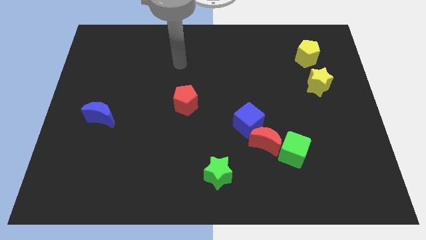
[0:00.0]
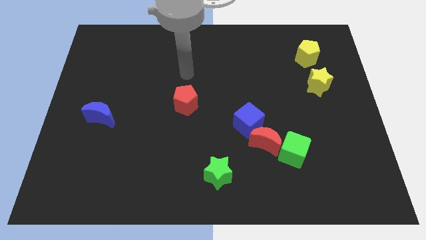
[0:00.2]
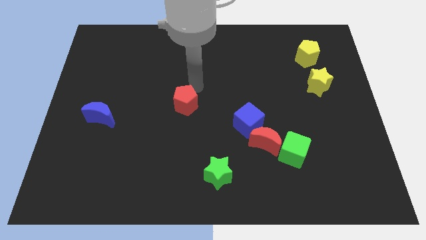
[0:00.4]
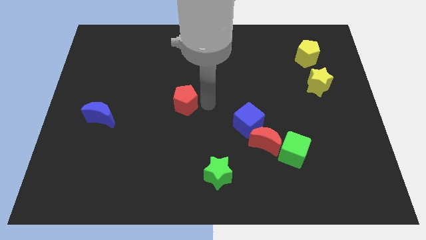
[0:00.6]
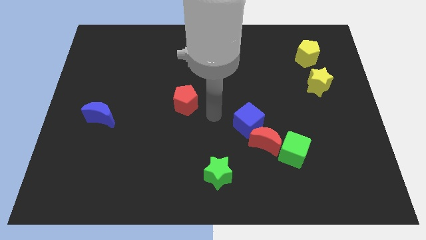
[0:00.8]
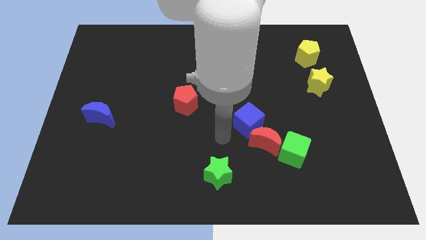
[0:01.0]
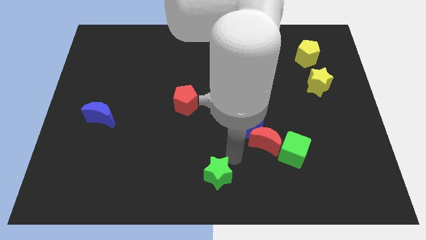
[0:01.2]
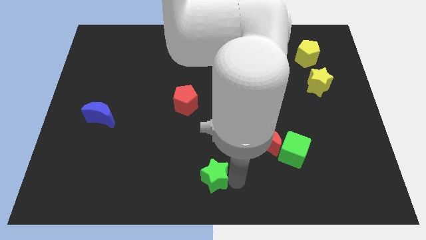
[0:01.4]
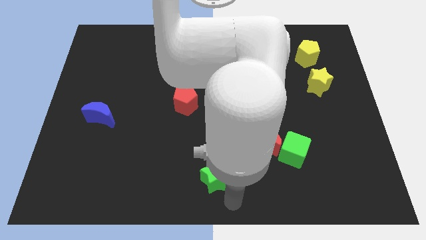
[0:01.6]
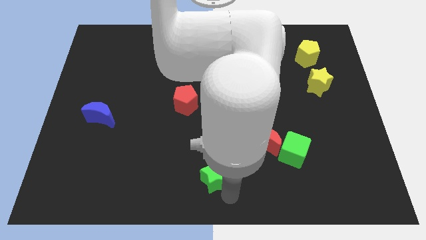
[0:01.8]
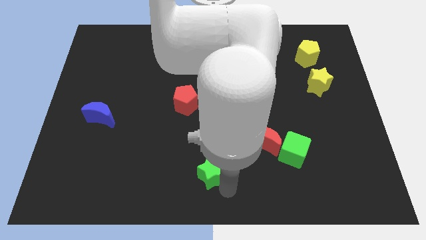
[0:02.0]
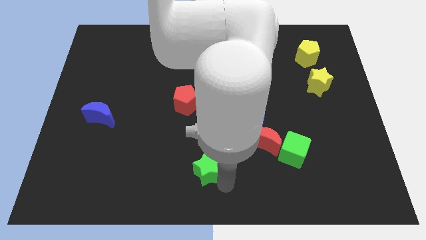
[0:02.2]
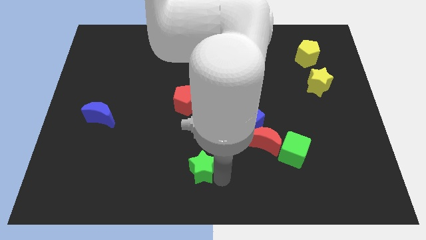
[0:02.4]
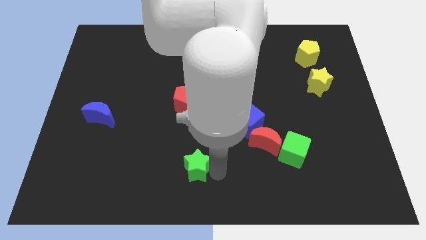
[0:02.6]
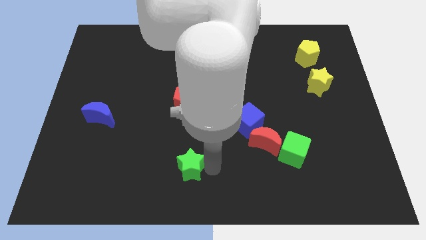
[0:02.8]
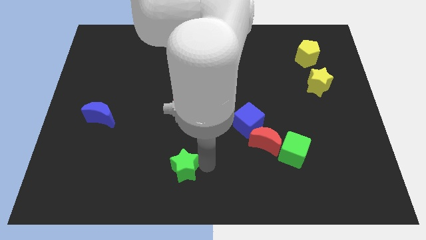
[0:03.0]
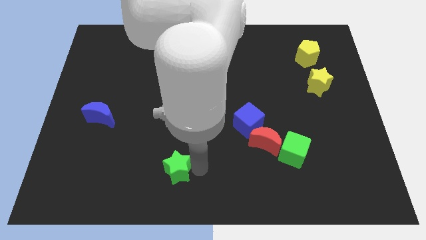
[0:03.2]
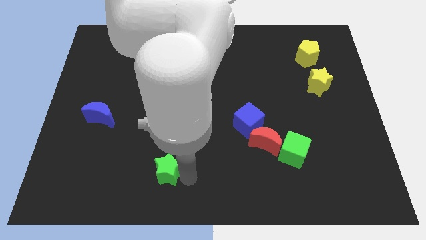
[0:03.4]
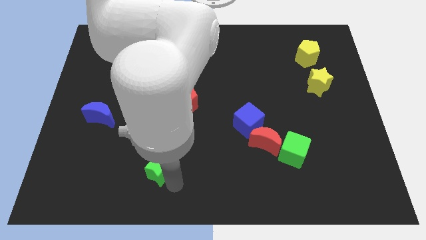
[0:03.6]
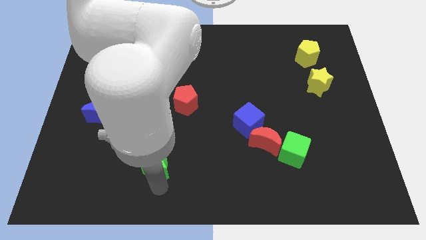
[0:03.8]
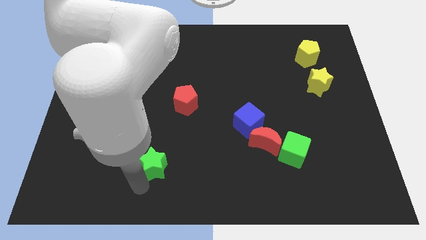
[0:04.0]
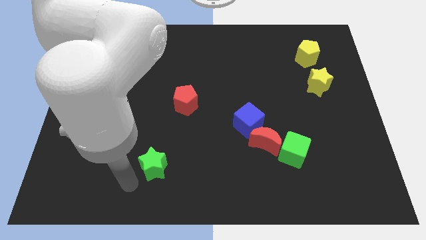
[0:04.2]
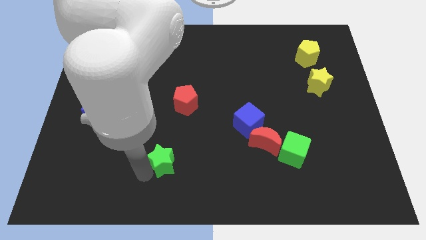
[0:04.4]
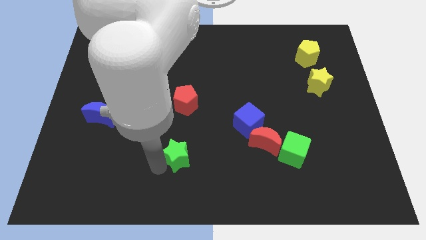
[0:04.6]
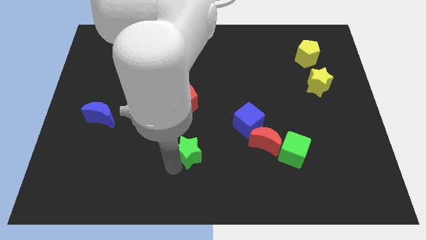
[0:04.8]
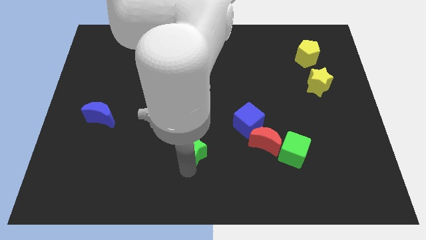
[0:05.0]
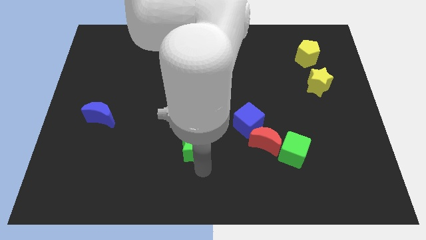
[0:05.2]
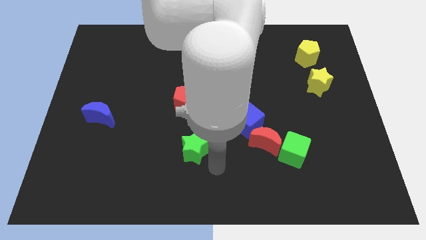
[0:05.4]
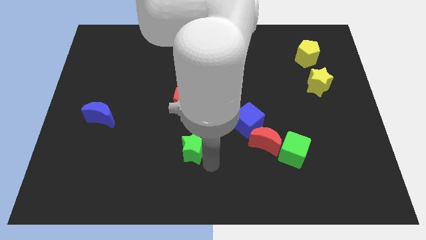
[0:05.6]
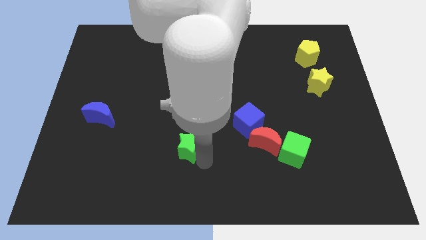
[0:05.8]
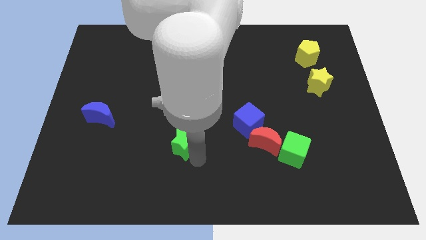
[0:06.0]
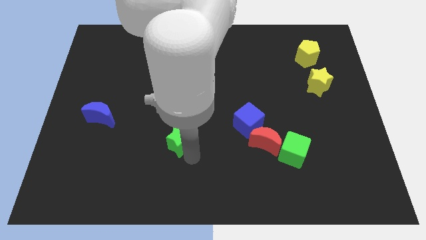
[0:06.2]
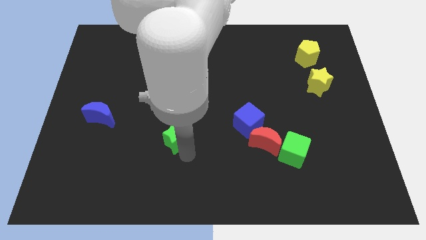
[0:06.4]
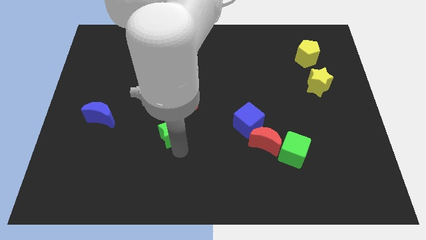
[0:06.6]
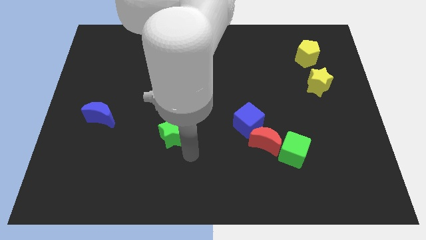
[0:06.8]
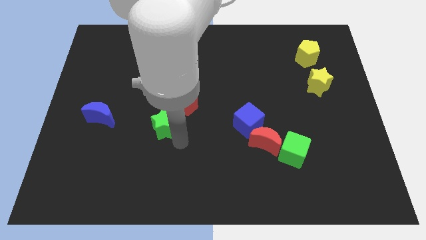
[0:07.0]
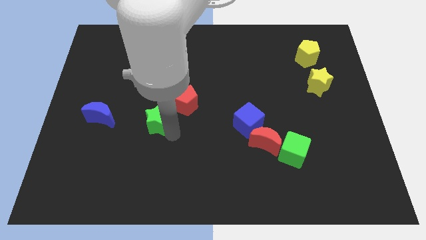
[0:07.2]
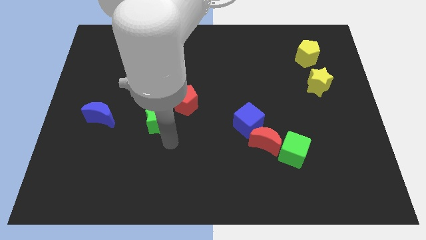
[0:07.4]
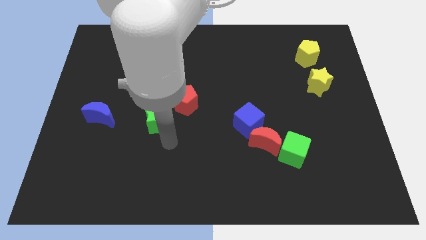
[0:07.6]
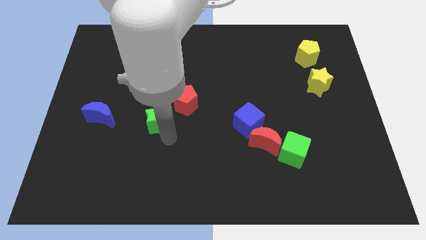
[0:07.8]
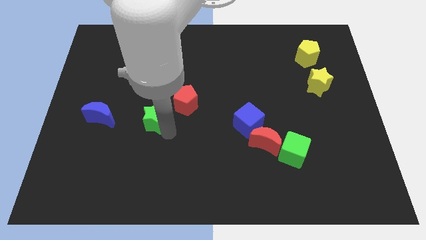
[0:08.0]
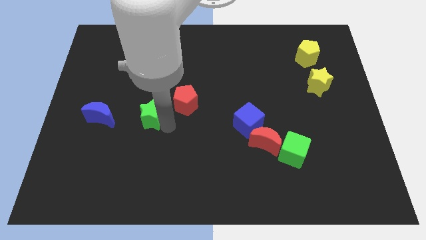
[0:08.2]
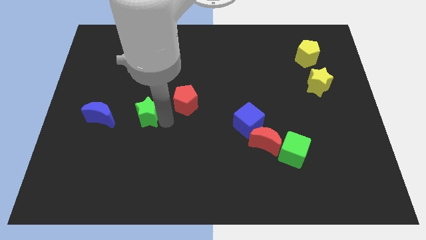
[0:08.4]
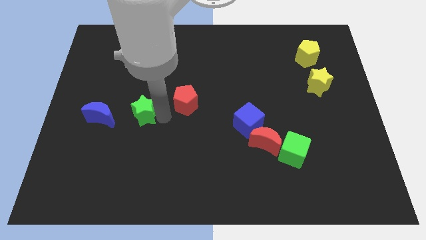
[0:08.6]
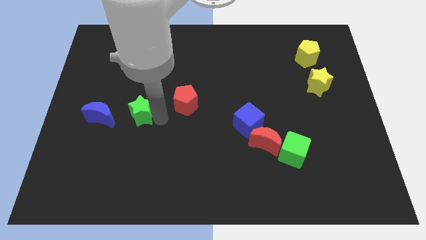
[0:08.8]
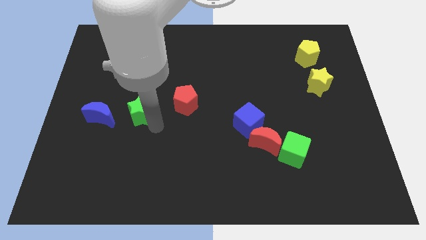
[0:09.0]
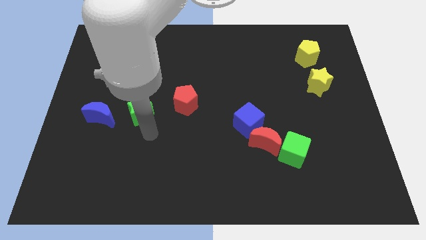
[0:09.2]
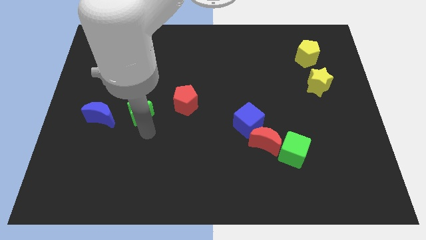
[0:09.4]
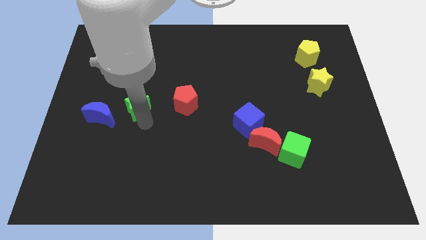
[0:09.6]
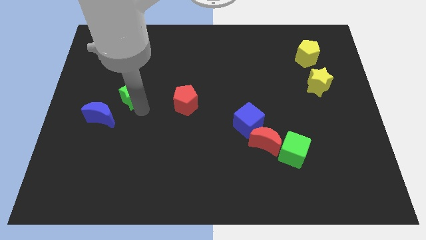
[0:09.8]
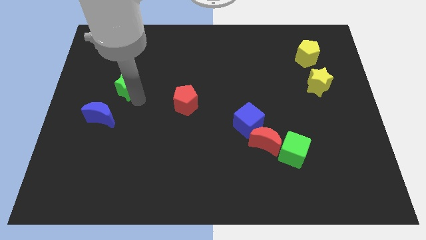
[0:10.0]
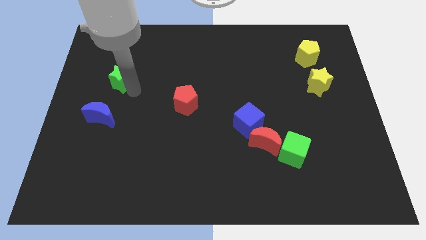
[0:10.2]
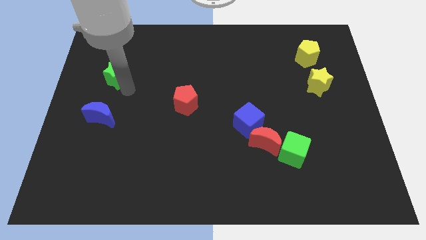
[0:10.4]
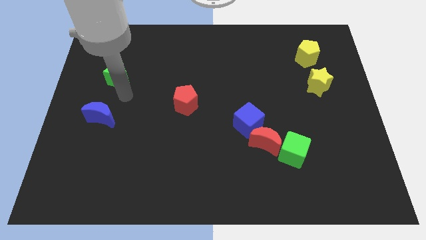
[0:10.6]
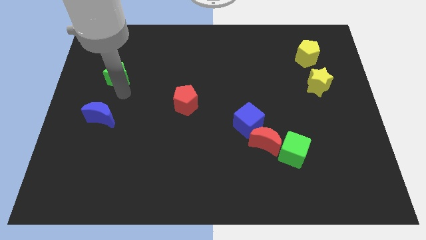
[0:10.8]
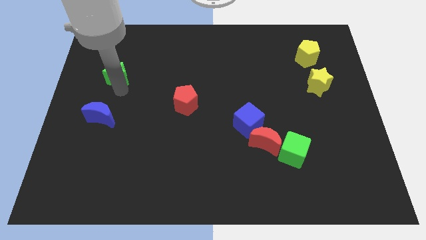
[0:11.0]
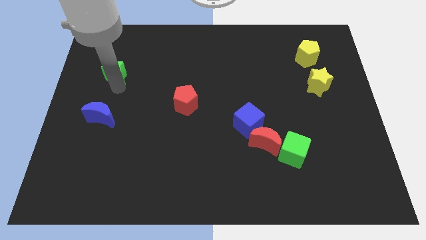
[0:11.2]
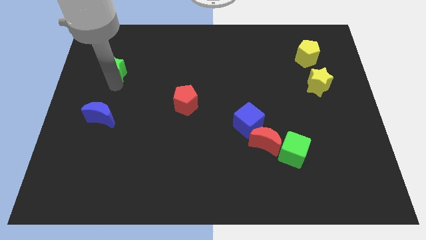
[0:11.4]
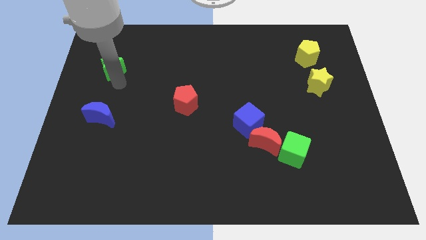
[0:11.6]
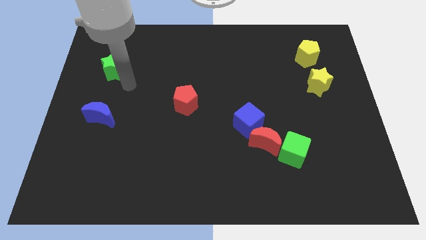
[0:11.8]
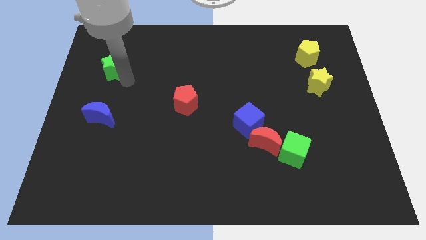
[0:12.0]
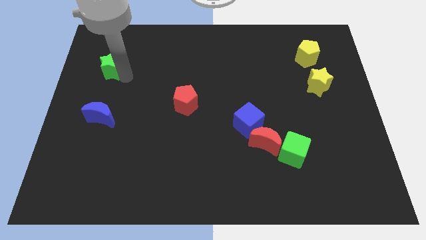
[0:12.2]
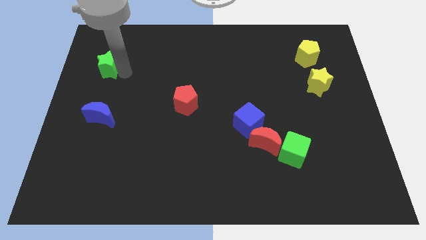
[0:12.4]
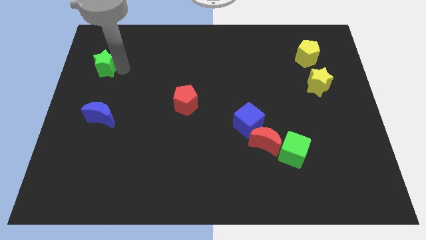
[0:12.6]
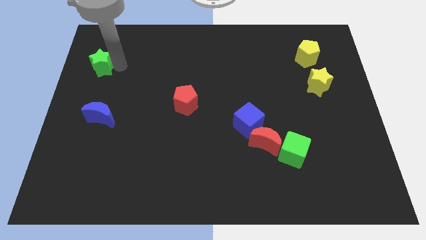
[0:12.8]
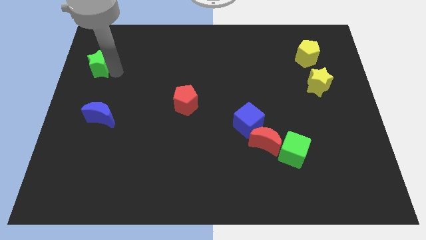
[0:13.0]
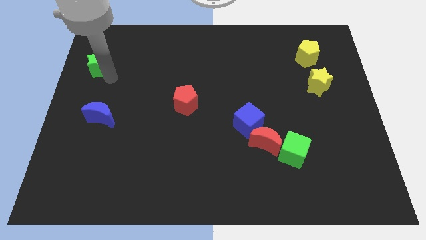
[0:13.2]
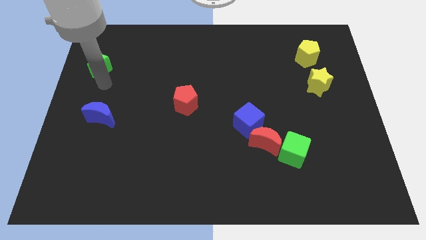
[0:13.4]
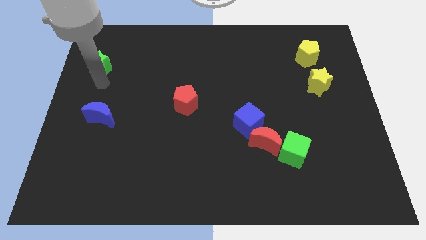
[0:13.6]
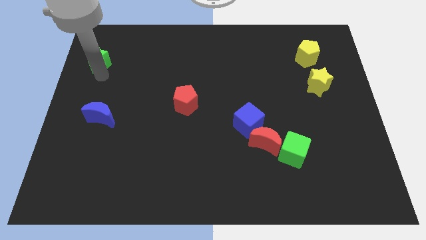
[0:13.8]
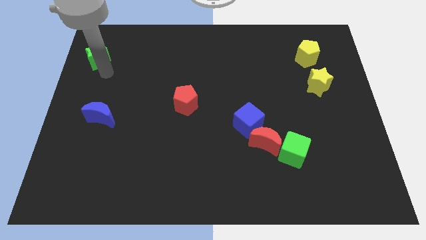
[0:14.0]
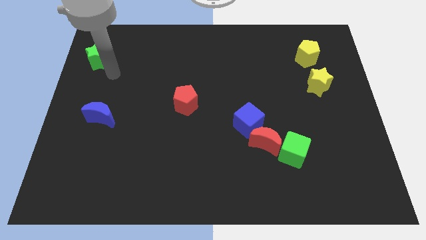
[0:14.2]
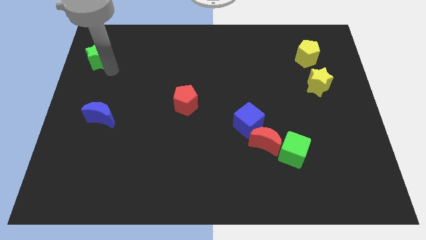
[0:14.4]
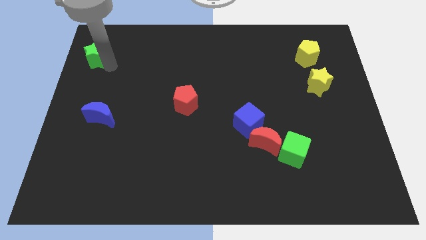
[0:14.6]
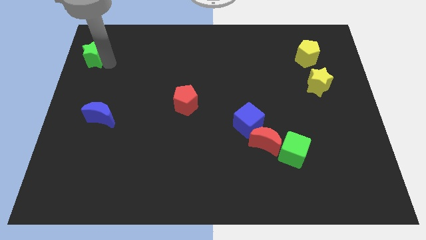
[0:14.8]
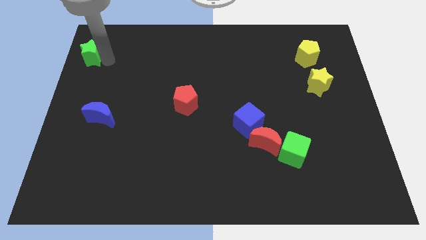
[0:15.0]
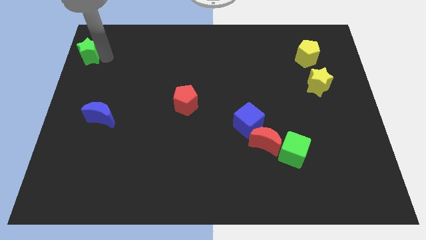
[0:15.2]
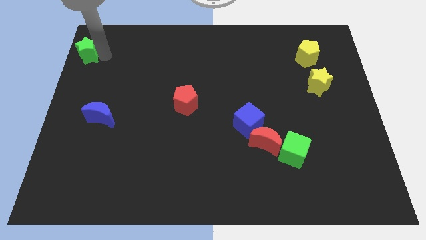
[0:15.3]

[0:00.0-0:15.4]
slide the green star to the top left
